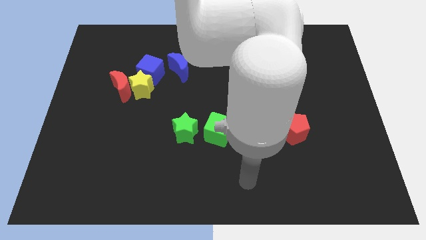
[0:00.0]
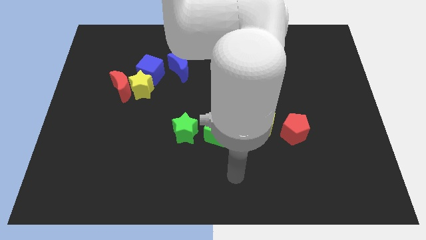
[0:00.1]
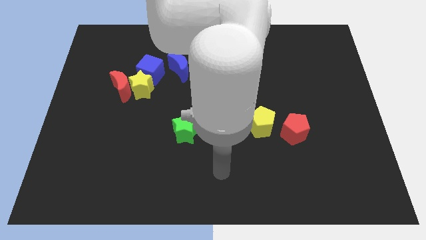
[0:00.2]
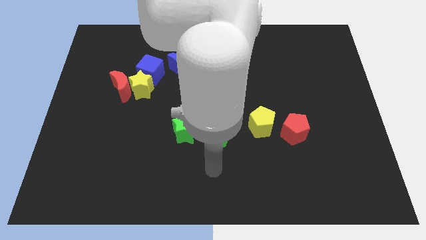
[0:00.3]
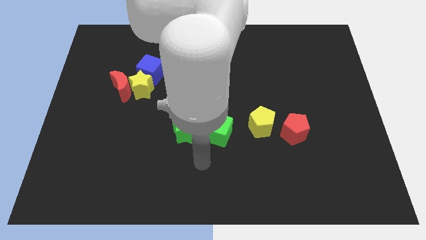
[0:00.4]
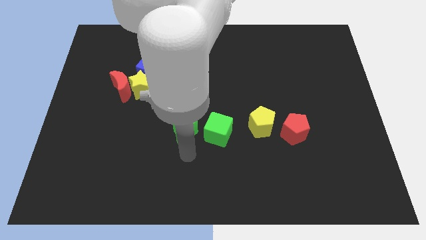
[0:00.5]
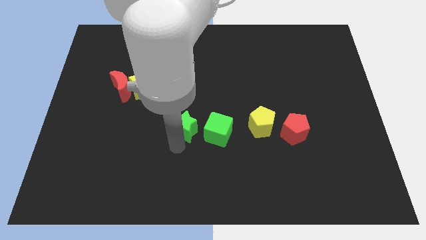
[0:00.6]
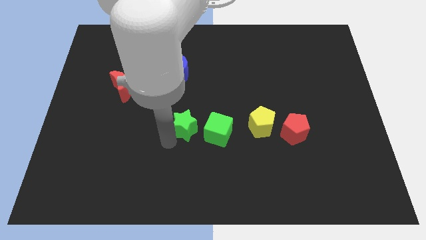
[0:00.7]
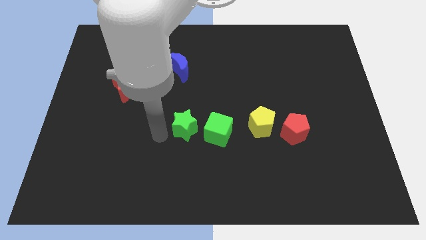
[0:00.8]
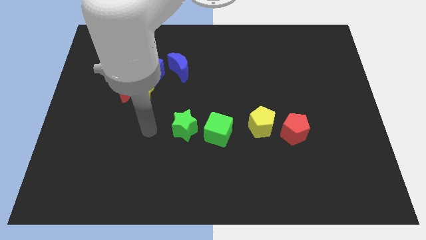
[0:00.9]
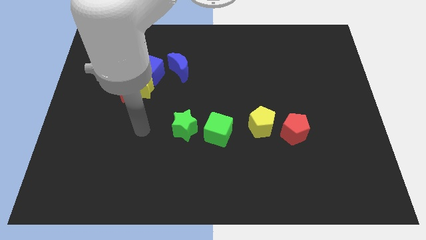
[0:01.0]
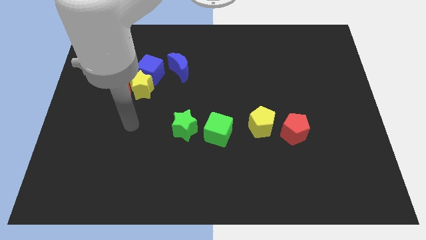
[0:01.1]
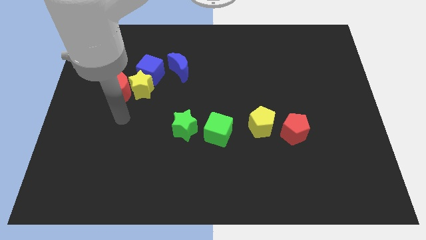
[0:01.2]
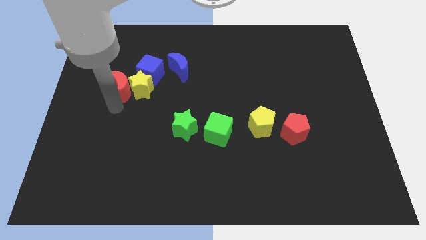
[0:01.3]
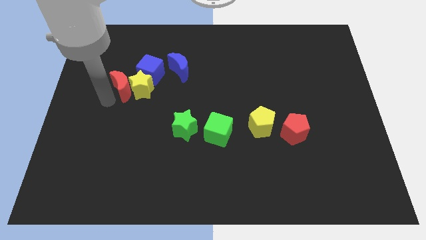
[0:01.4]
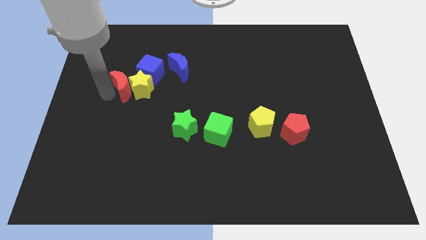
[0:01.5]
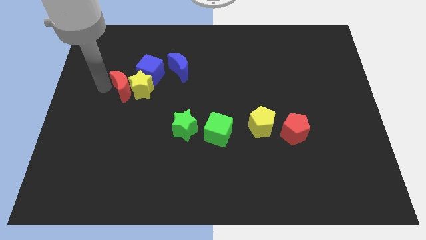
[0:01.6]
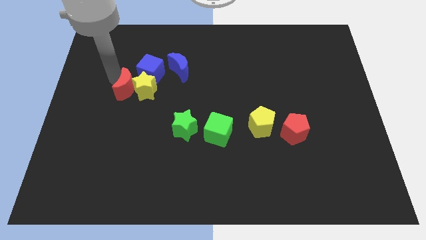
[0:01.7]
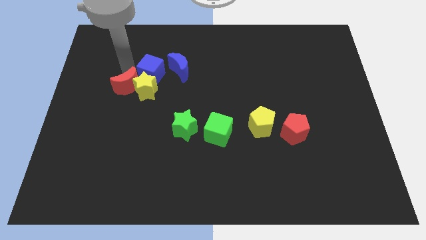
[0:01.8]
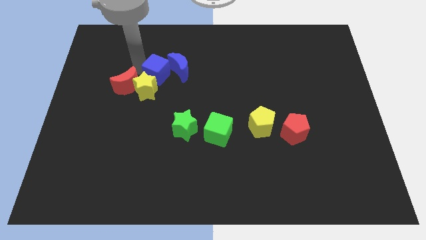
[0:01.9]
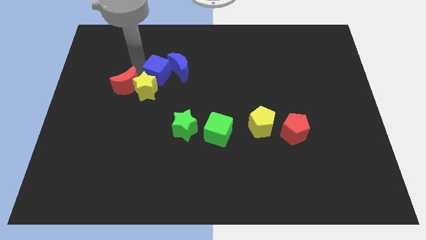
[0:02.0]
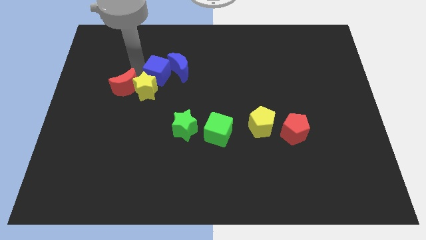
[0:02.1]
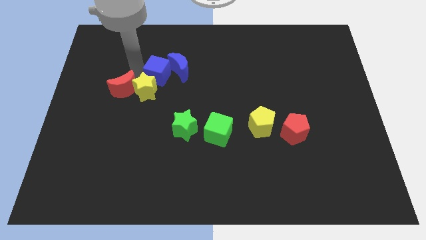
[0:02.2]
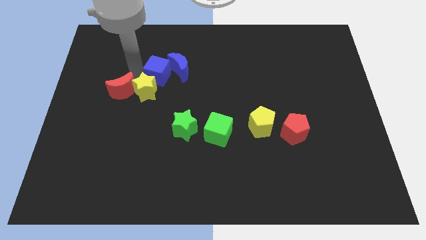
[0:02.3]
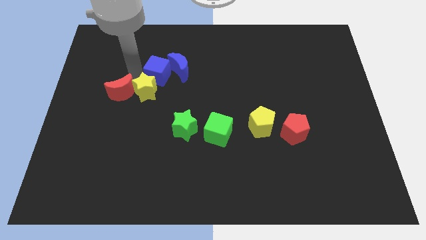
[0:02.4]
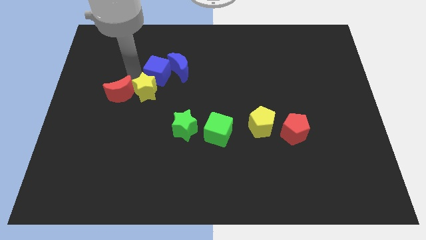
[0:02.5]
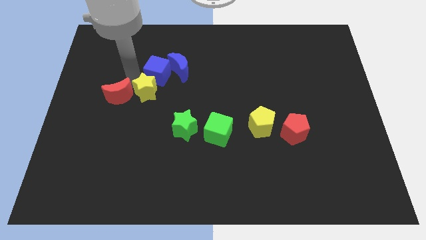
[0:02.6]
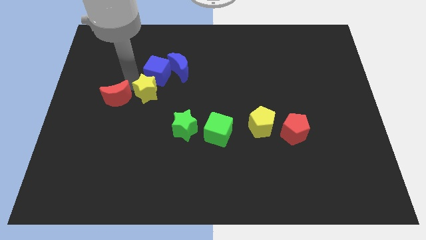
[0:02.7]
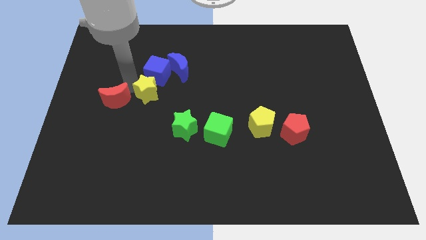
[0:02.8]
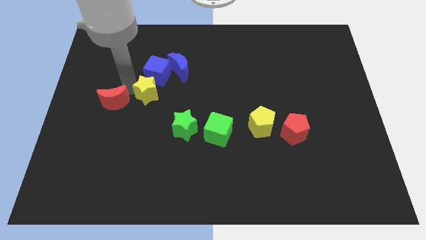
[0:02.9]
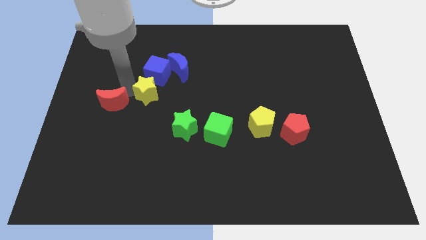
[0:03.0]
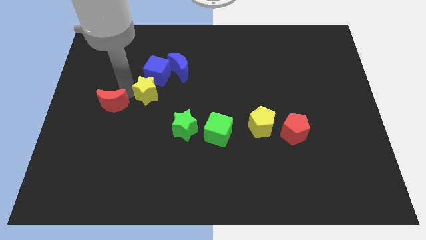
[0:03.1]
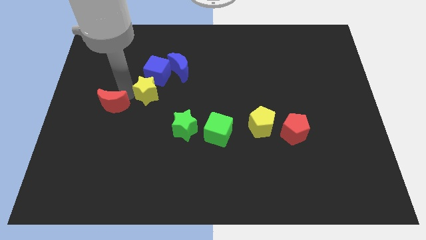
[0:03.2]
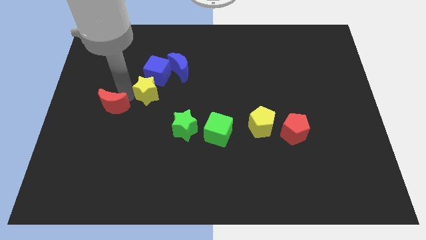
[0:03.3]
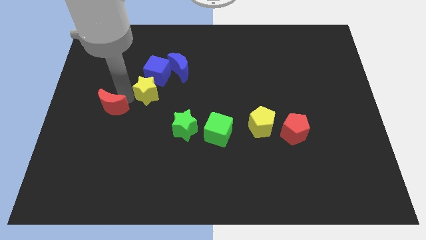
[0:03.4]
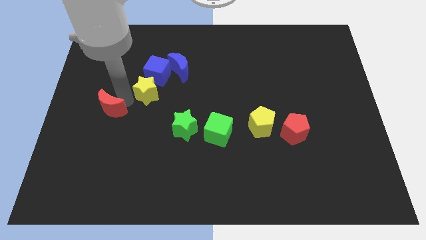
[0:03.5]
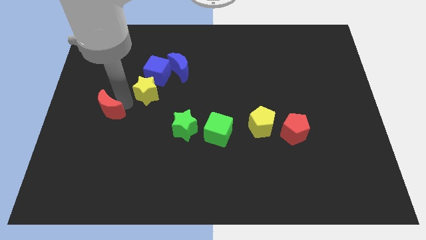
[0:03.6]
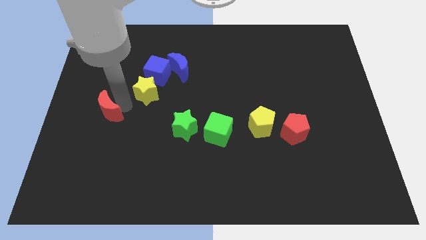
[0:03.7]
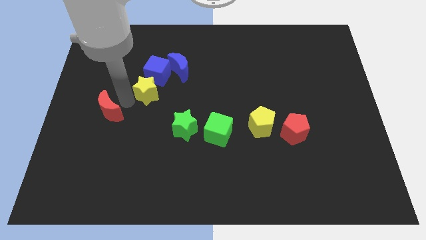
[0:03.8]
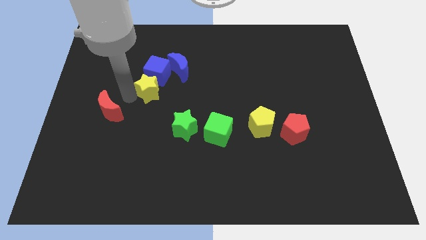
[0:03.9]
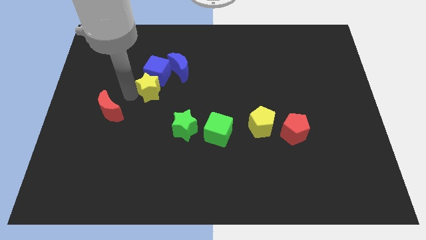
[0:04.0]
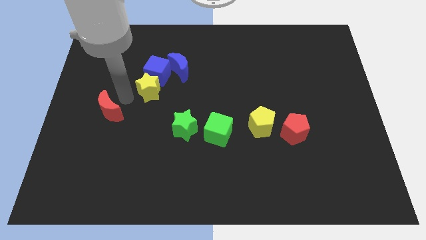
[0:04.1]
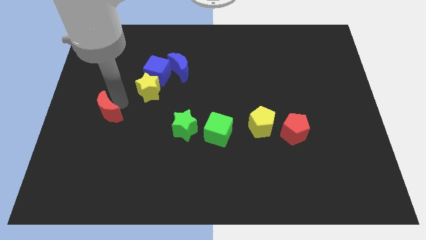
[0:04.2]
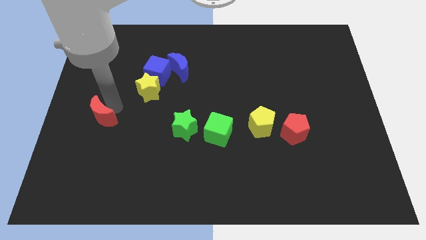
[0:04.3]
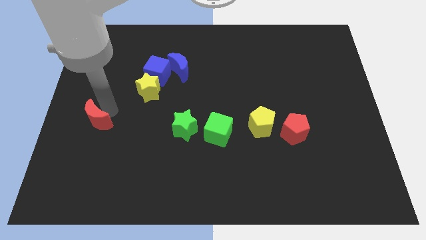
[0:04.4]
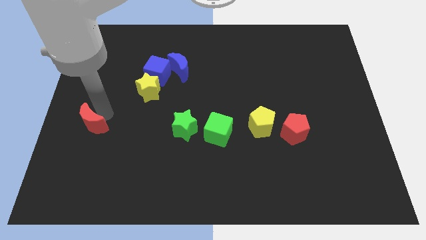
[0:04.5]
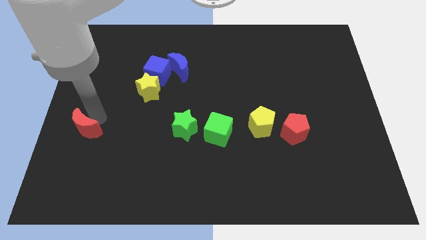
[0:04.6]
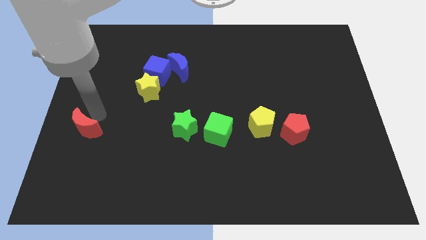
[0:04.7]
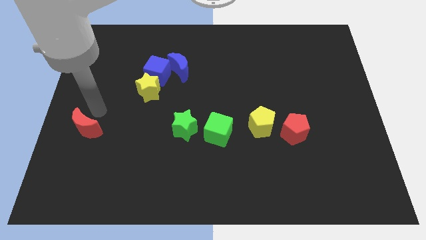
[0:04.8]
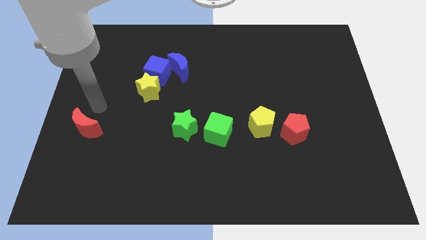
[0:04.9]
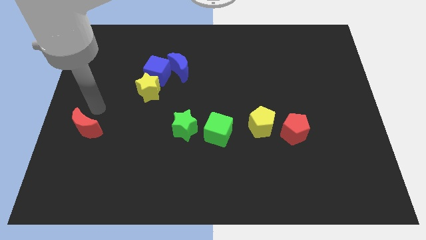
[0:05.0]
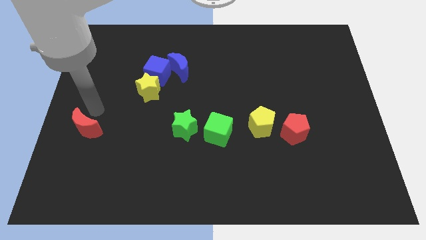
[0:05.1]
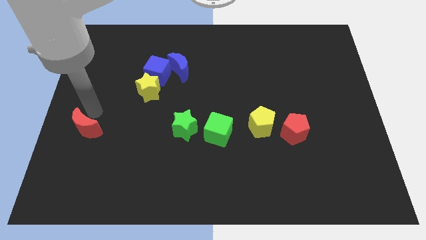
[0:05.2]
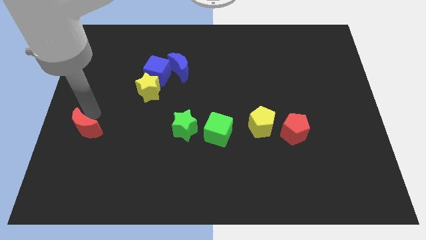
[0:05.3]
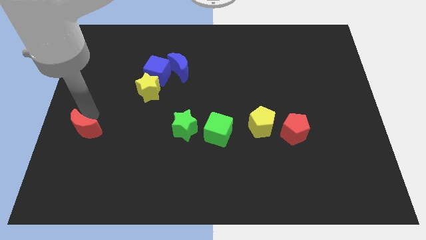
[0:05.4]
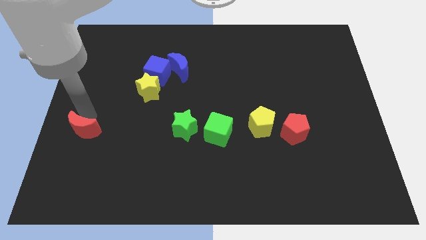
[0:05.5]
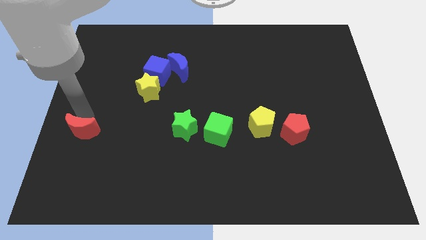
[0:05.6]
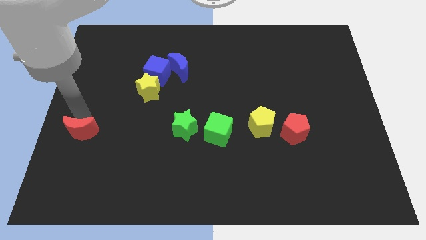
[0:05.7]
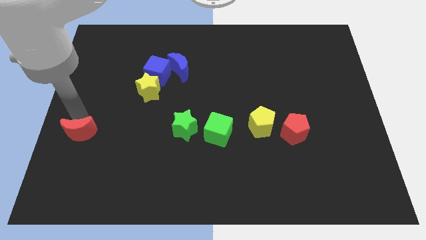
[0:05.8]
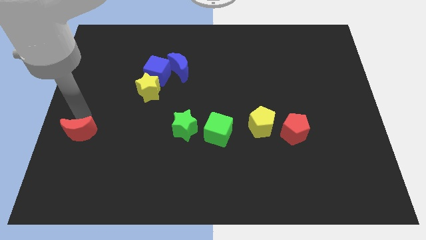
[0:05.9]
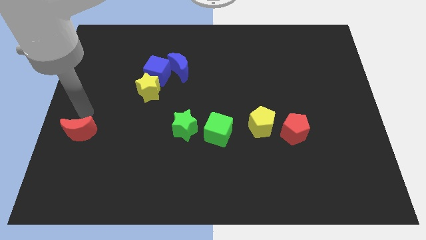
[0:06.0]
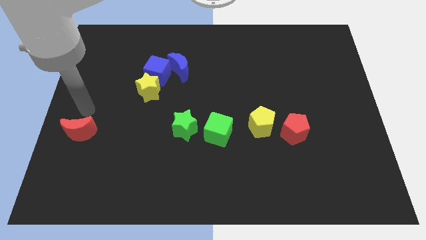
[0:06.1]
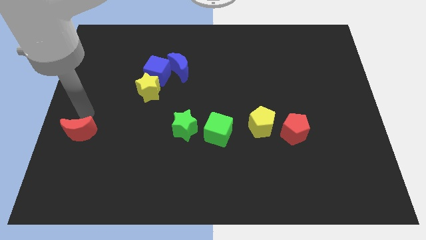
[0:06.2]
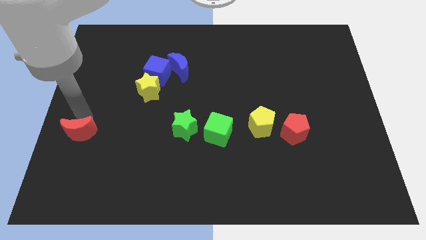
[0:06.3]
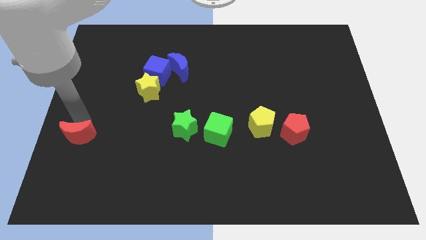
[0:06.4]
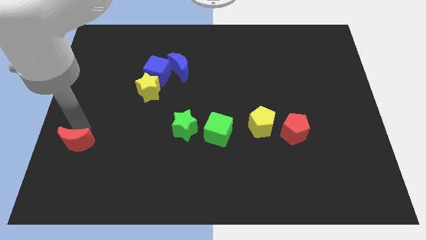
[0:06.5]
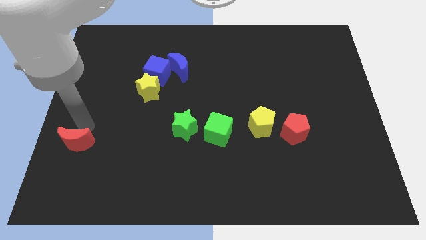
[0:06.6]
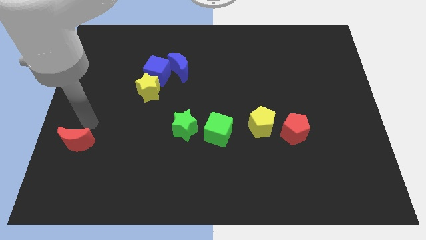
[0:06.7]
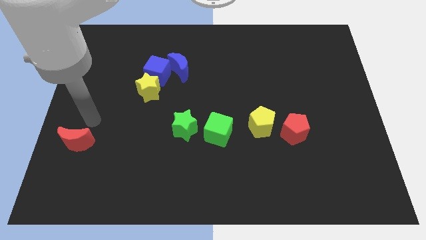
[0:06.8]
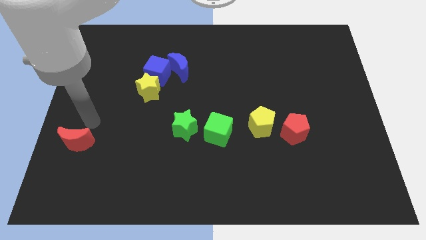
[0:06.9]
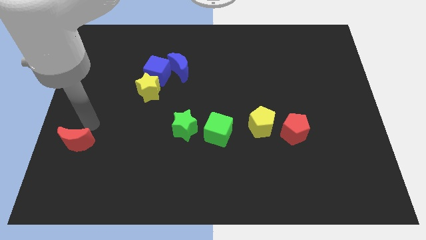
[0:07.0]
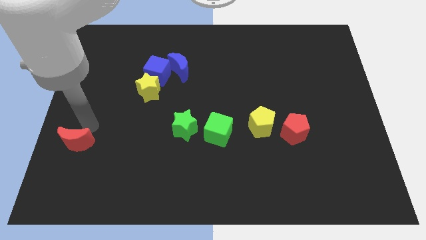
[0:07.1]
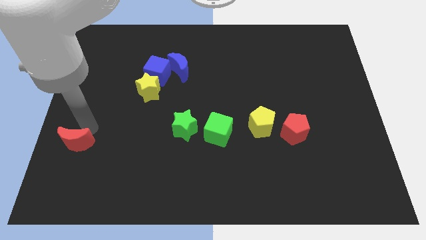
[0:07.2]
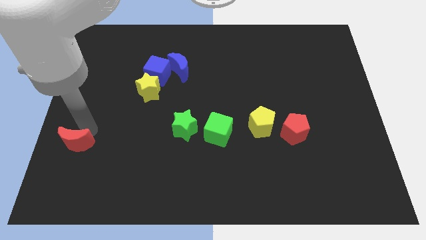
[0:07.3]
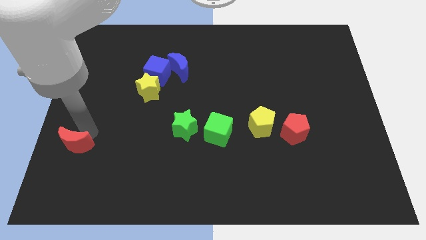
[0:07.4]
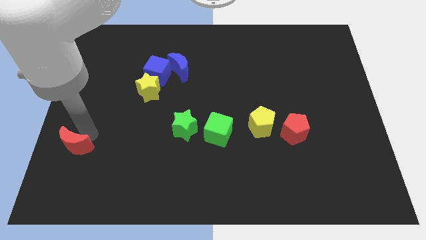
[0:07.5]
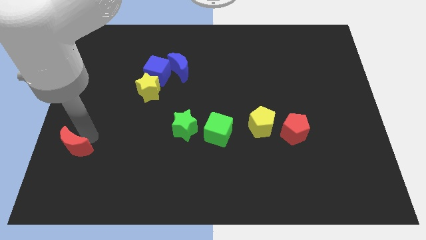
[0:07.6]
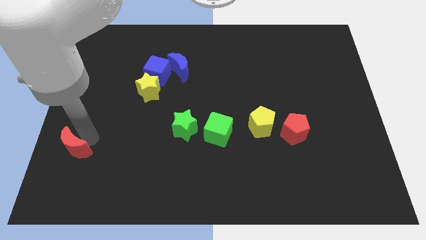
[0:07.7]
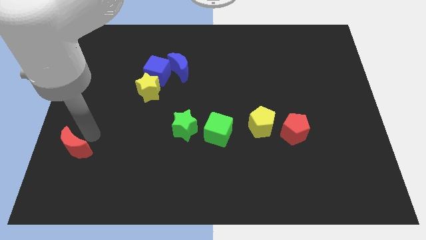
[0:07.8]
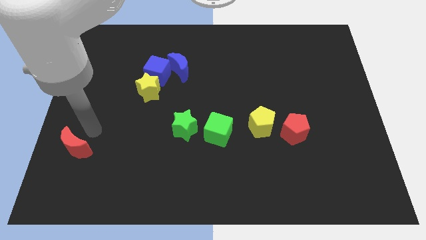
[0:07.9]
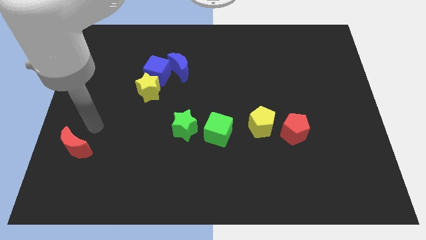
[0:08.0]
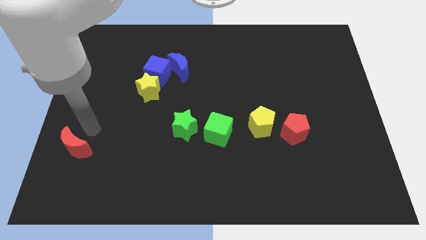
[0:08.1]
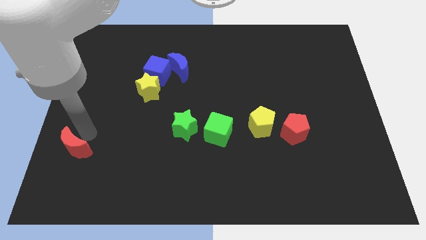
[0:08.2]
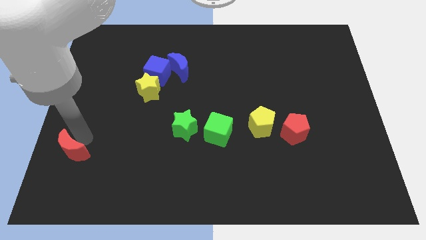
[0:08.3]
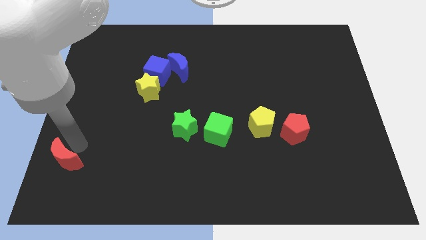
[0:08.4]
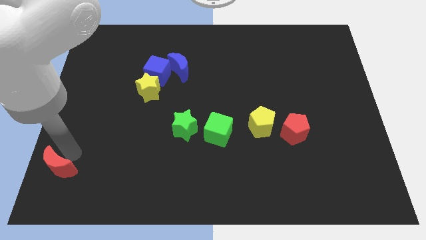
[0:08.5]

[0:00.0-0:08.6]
slide the red moon to the bottom left of the board
